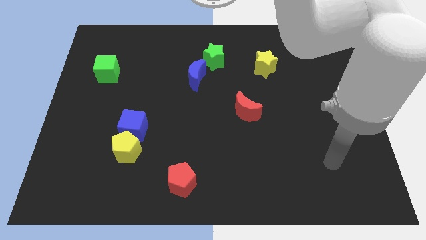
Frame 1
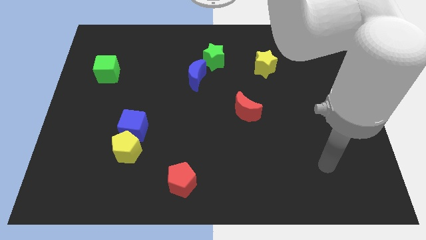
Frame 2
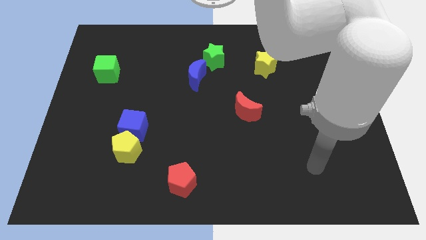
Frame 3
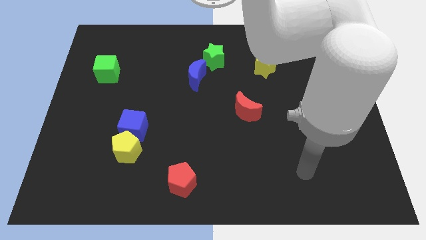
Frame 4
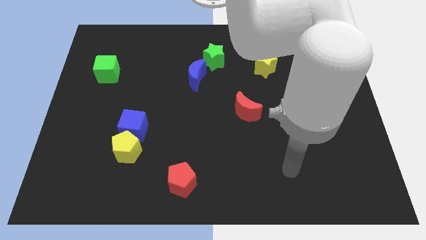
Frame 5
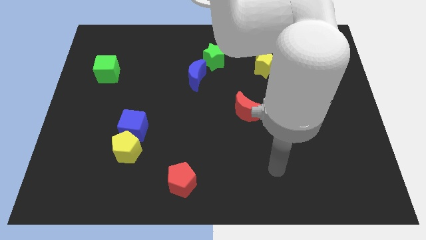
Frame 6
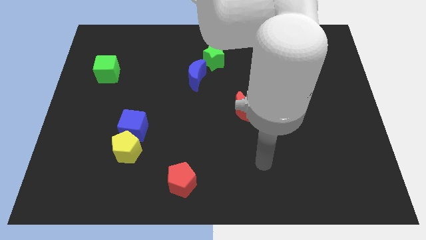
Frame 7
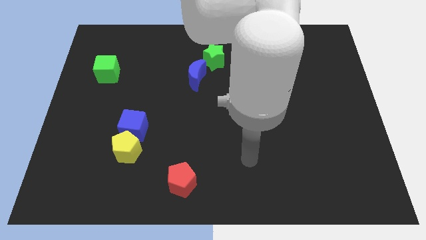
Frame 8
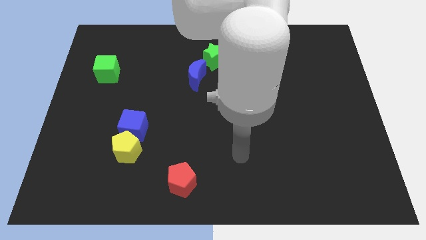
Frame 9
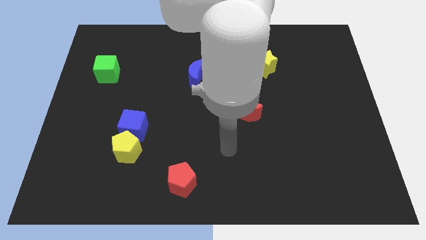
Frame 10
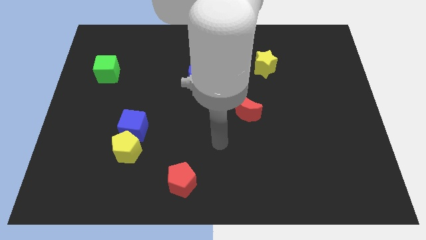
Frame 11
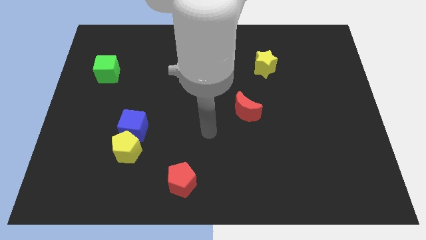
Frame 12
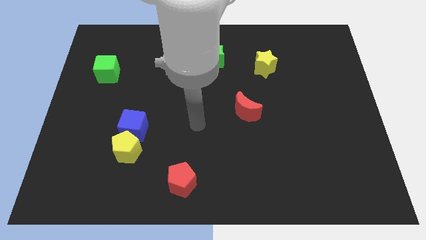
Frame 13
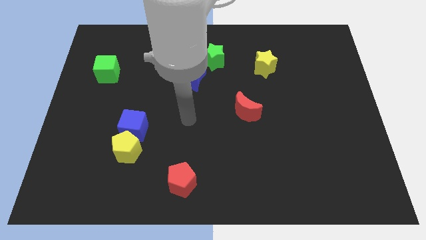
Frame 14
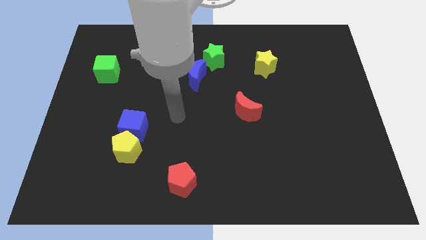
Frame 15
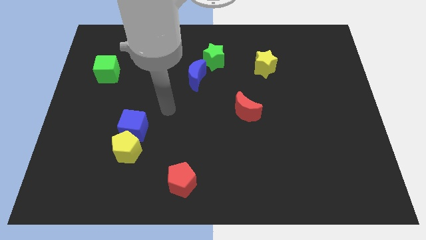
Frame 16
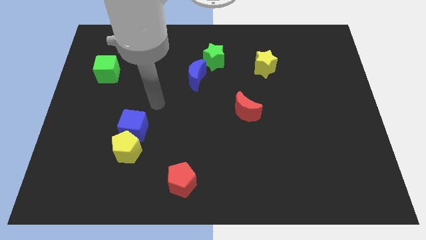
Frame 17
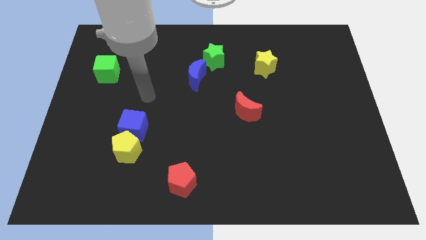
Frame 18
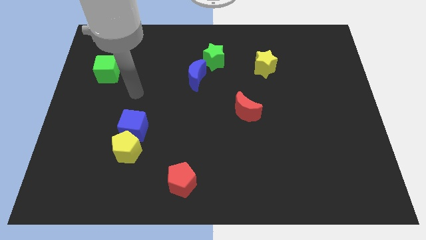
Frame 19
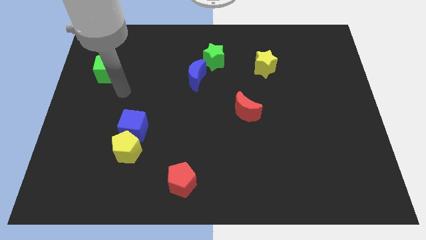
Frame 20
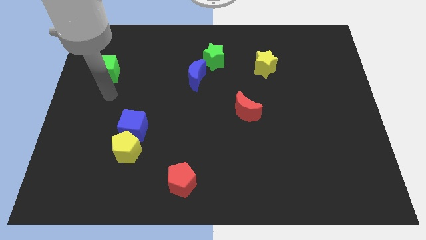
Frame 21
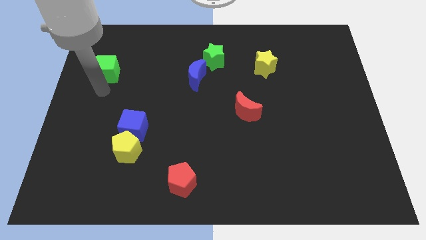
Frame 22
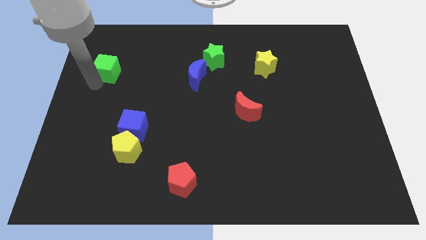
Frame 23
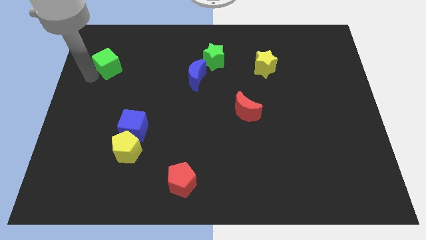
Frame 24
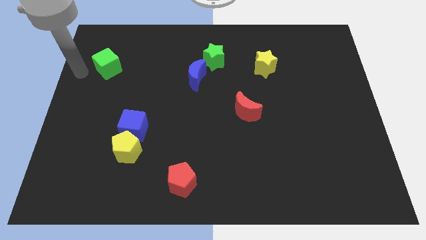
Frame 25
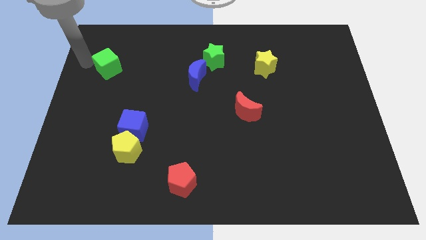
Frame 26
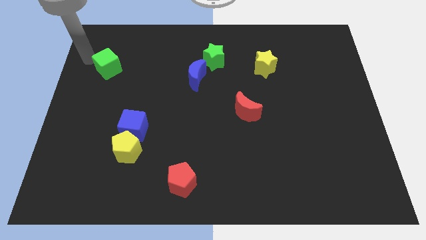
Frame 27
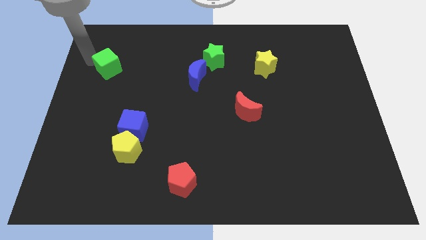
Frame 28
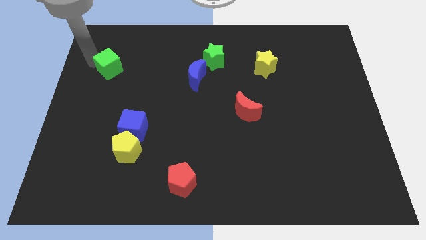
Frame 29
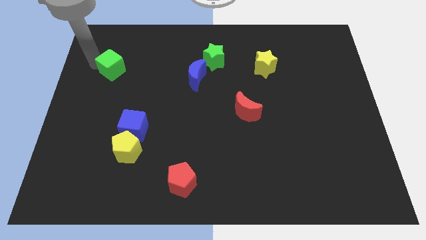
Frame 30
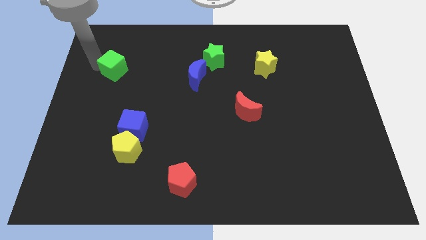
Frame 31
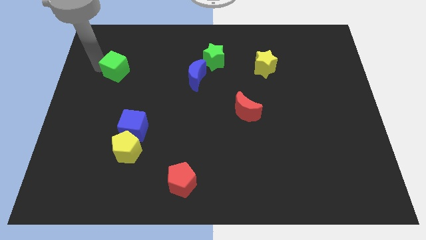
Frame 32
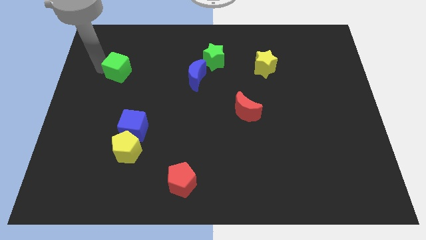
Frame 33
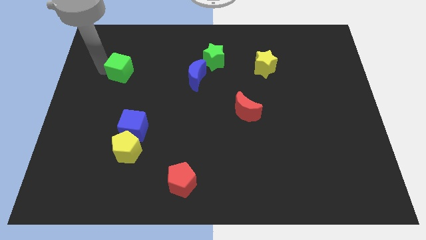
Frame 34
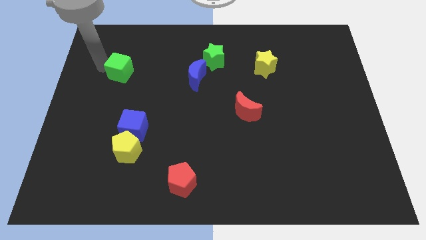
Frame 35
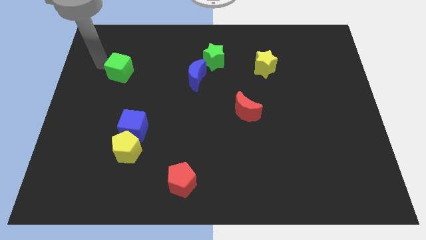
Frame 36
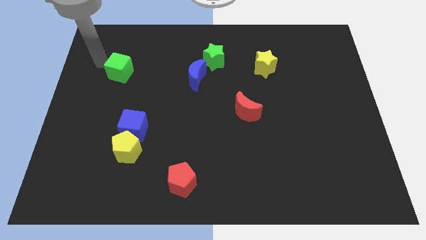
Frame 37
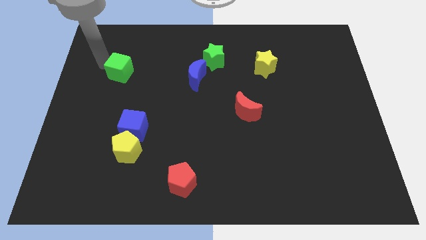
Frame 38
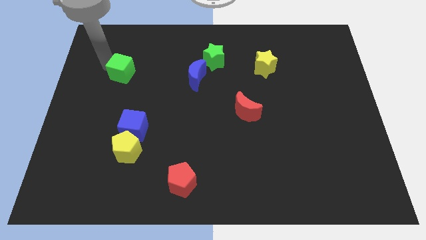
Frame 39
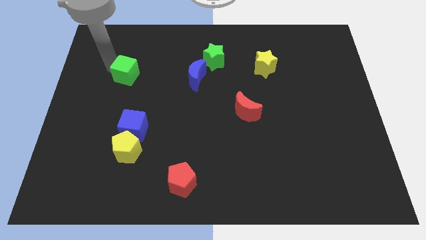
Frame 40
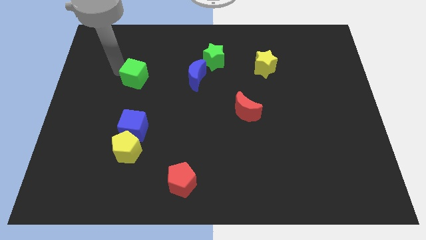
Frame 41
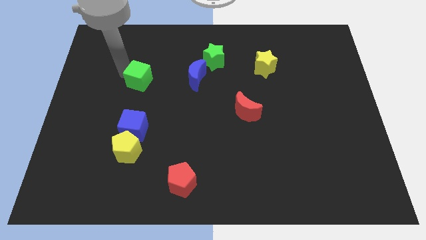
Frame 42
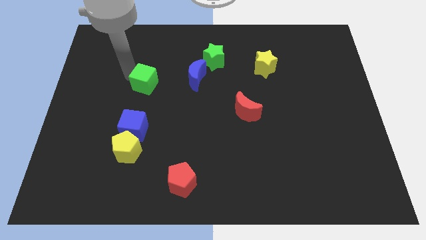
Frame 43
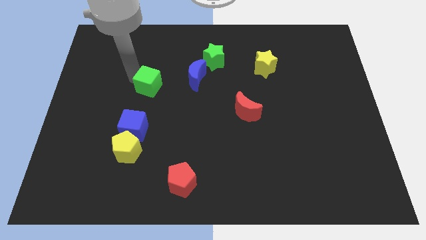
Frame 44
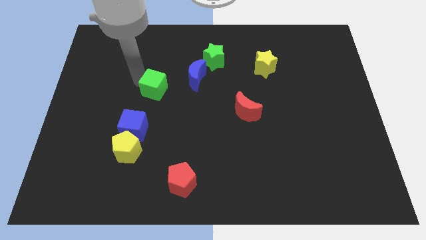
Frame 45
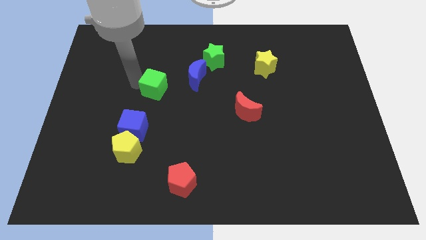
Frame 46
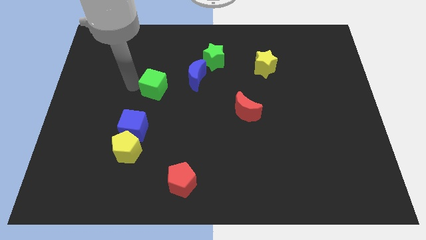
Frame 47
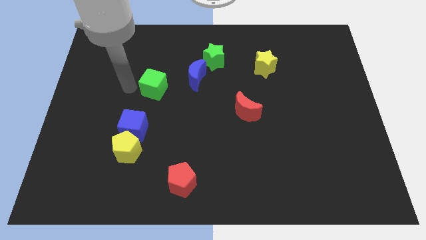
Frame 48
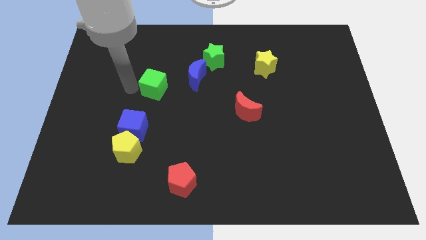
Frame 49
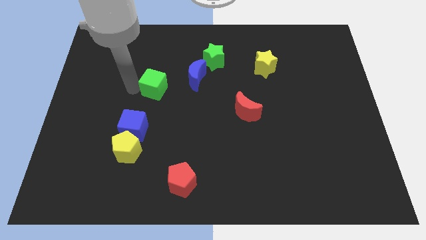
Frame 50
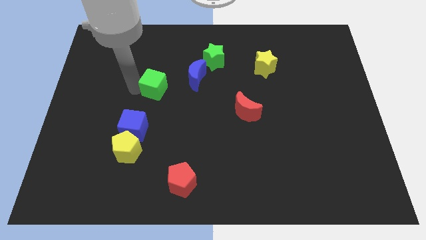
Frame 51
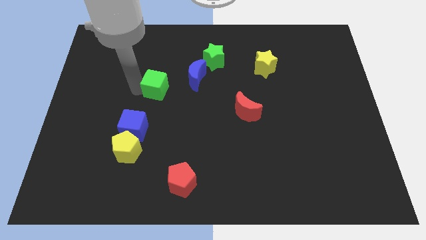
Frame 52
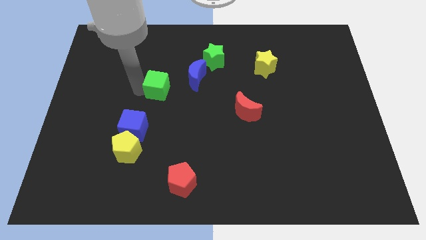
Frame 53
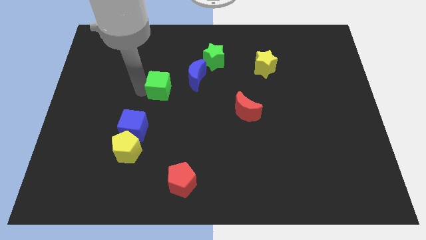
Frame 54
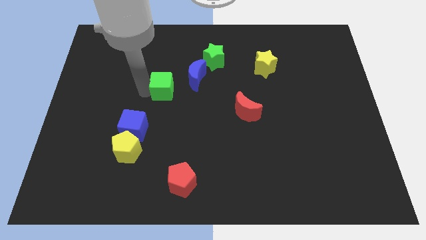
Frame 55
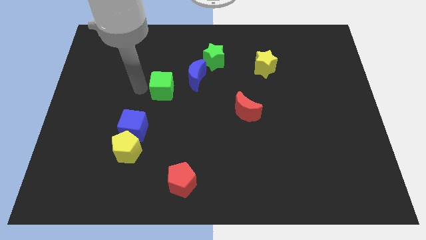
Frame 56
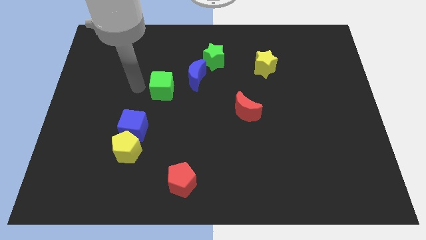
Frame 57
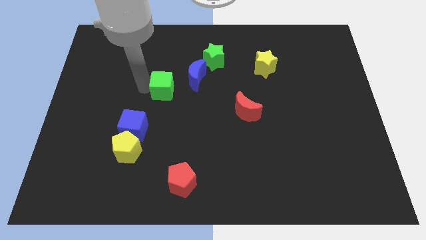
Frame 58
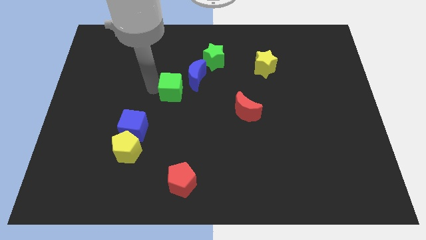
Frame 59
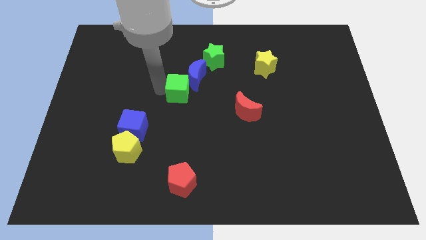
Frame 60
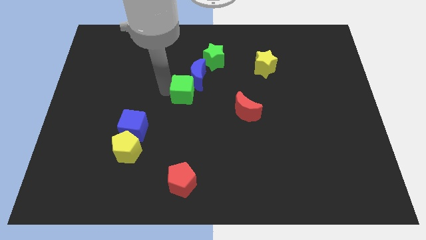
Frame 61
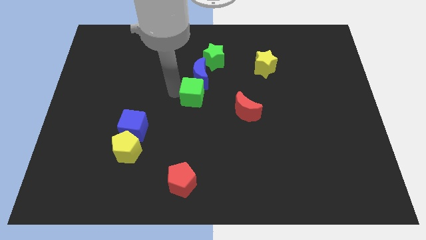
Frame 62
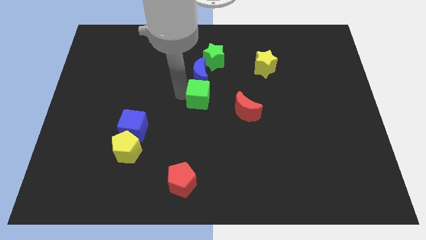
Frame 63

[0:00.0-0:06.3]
push the green cube right

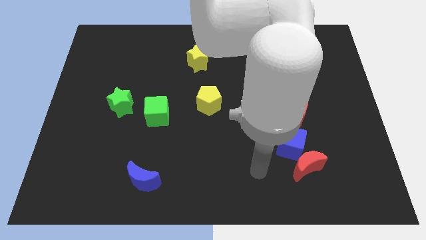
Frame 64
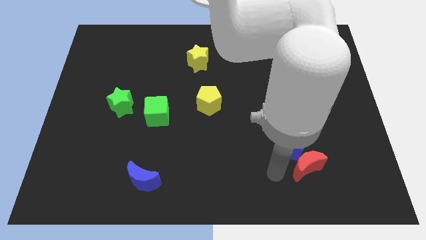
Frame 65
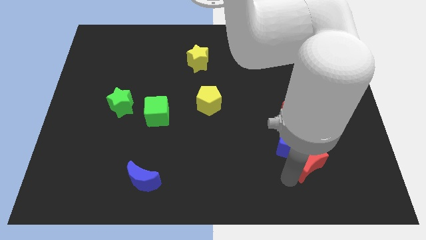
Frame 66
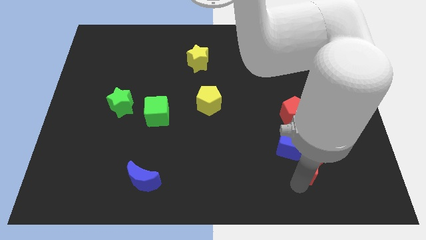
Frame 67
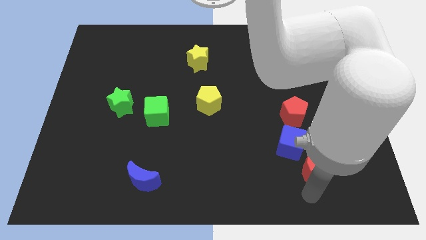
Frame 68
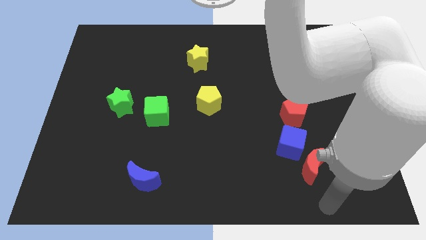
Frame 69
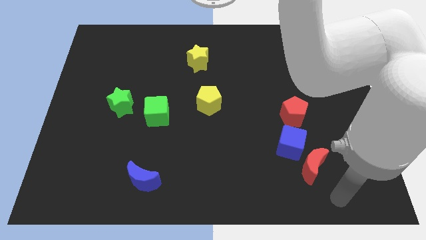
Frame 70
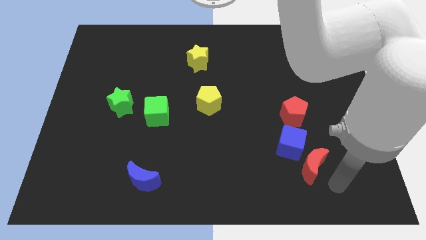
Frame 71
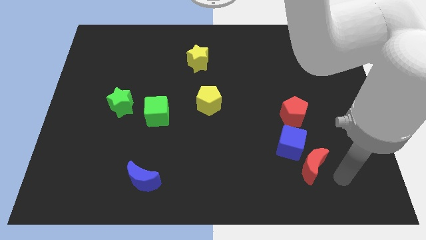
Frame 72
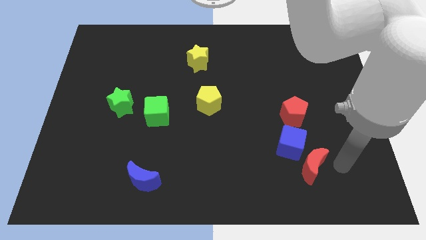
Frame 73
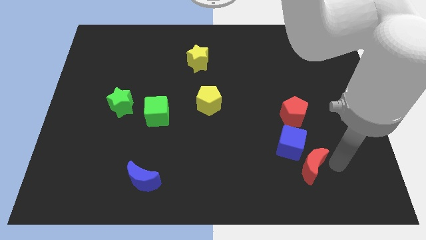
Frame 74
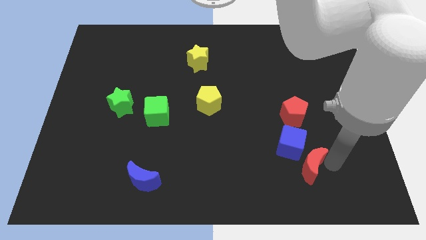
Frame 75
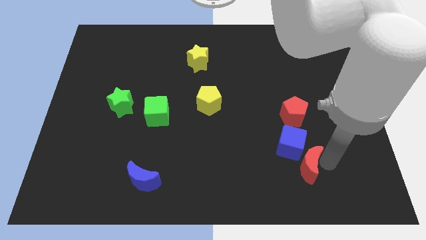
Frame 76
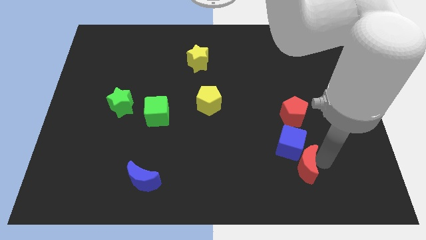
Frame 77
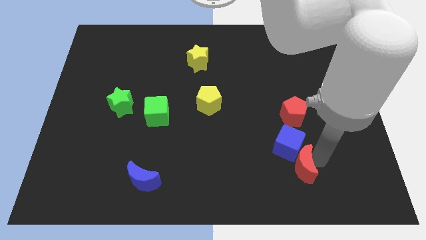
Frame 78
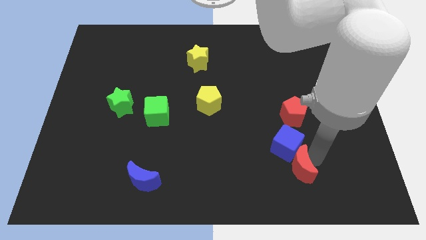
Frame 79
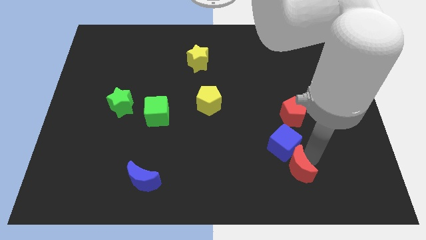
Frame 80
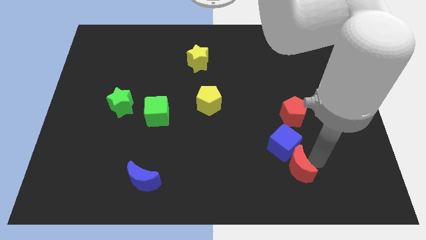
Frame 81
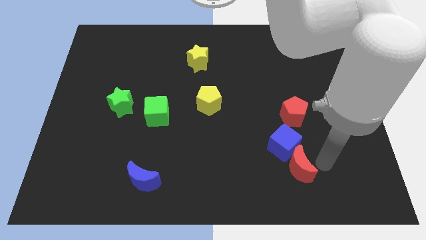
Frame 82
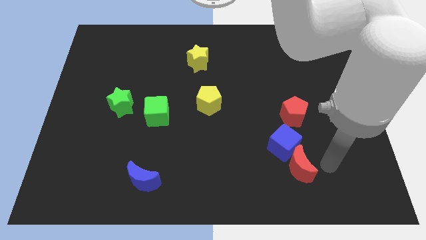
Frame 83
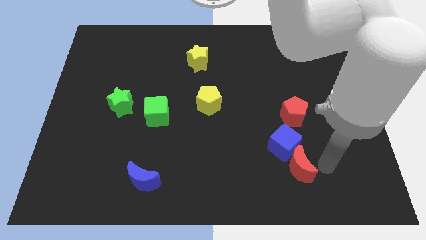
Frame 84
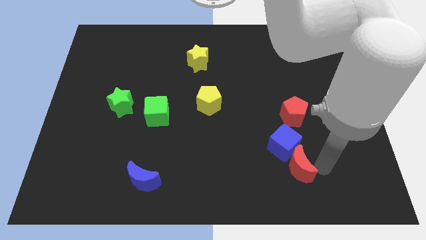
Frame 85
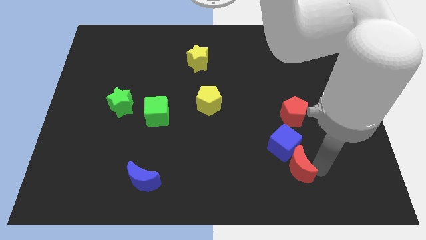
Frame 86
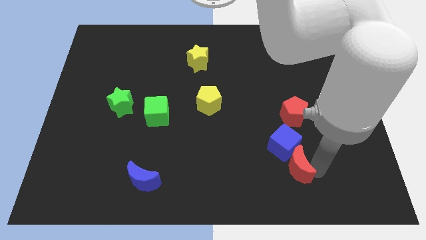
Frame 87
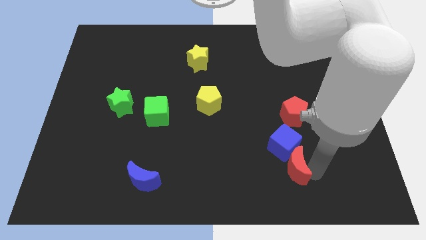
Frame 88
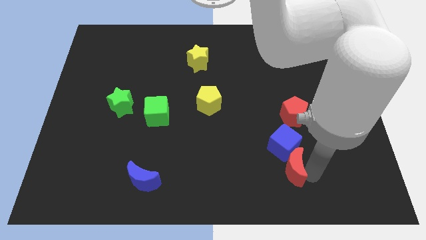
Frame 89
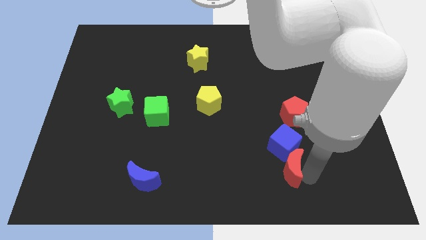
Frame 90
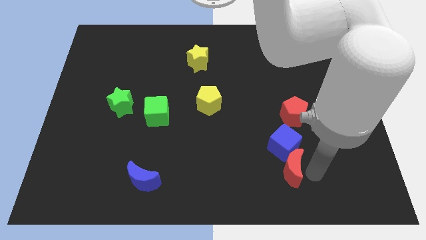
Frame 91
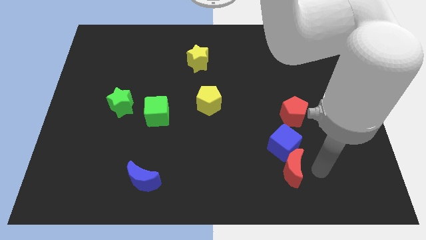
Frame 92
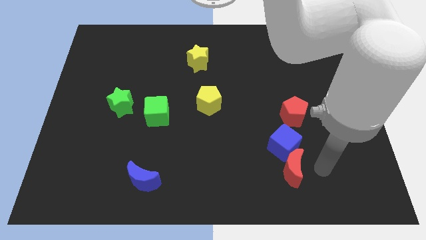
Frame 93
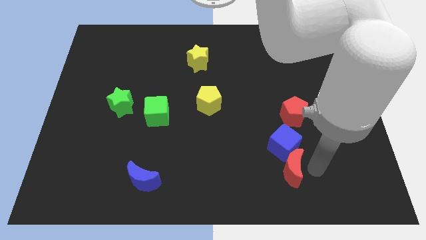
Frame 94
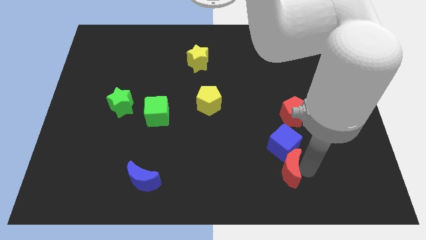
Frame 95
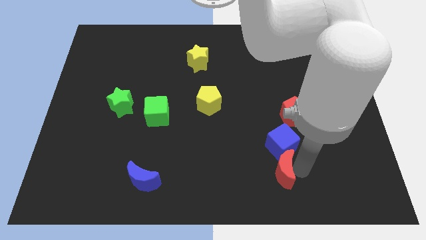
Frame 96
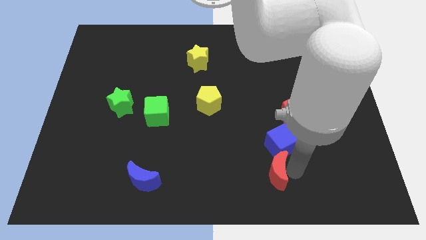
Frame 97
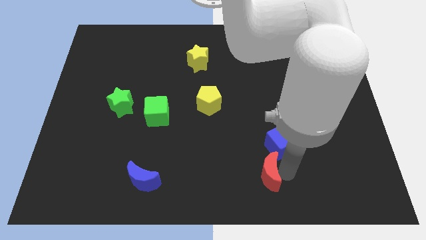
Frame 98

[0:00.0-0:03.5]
push the red moon a bit left
